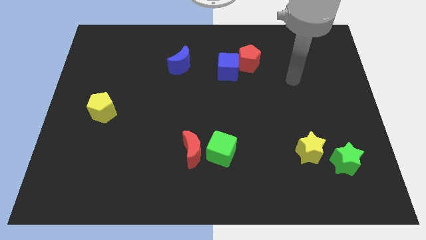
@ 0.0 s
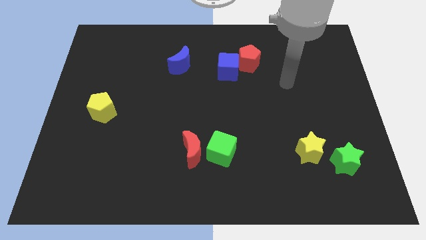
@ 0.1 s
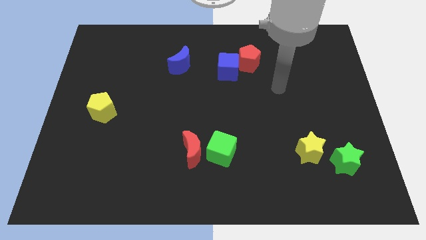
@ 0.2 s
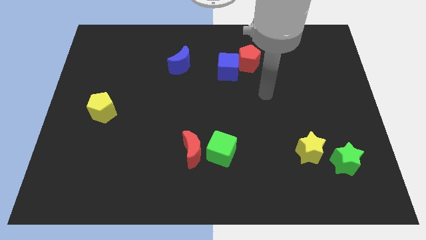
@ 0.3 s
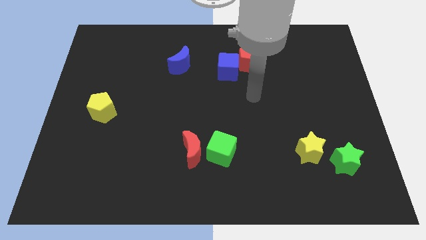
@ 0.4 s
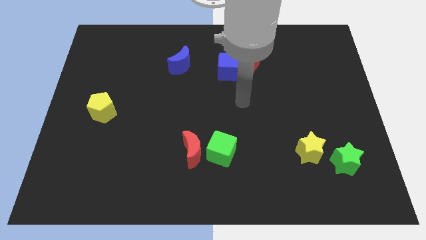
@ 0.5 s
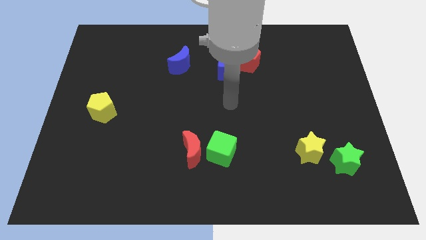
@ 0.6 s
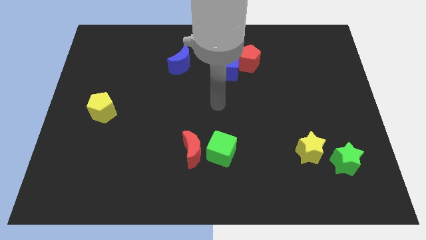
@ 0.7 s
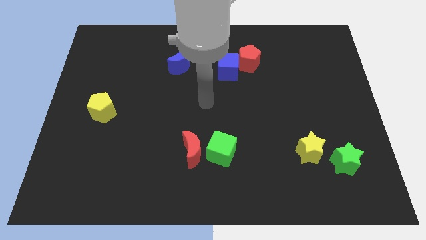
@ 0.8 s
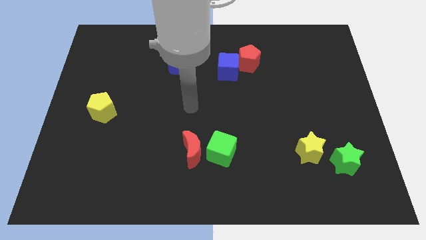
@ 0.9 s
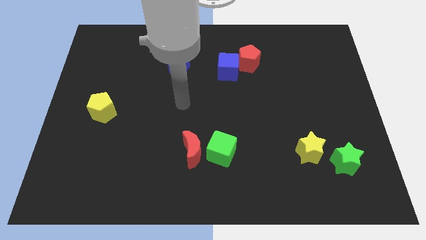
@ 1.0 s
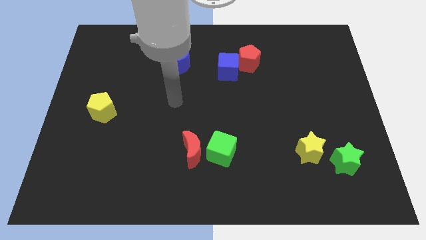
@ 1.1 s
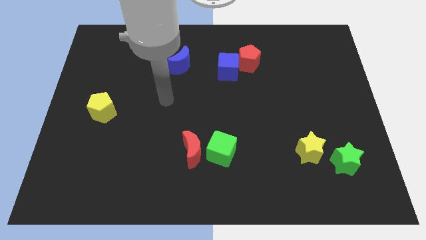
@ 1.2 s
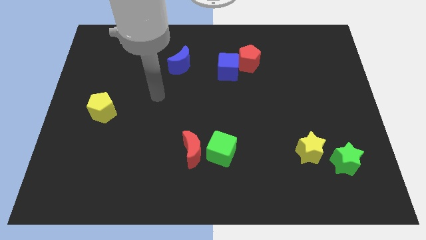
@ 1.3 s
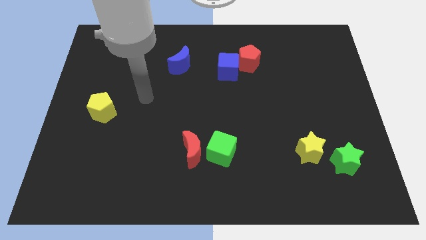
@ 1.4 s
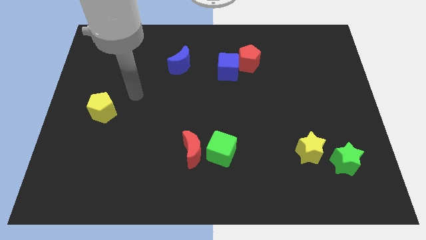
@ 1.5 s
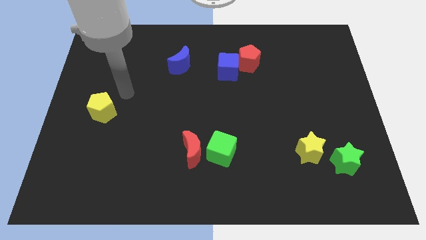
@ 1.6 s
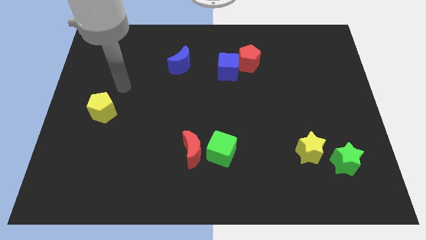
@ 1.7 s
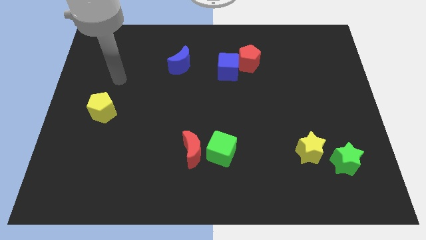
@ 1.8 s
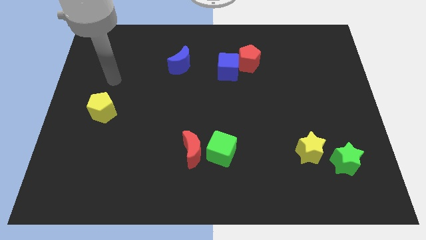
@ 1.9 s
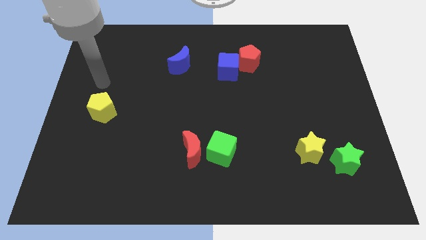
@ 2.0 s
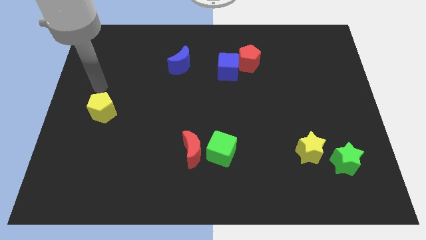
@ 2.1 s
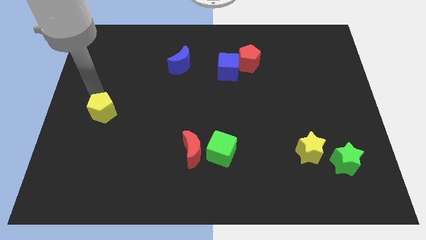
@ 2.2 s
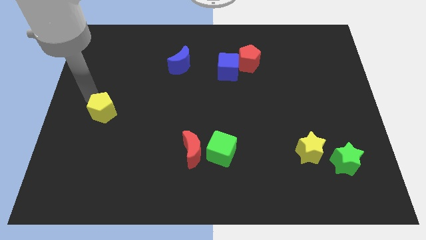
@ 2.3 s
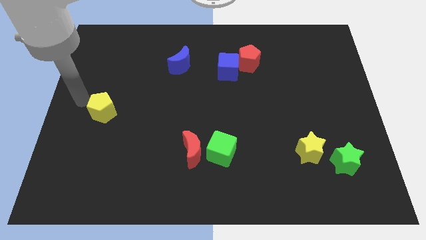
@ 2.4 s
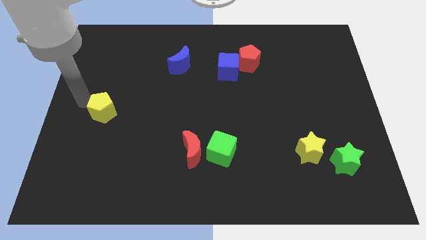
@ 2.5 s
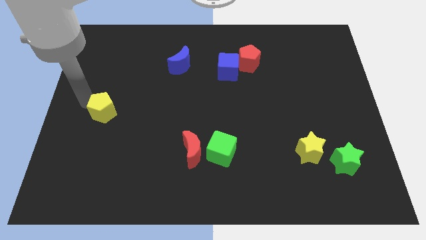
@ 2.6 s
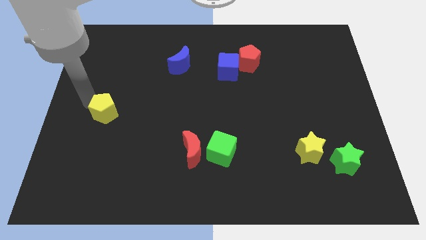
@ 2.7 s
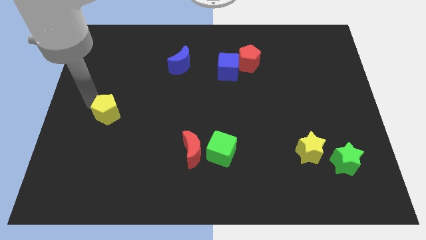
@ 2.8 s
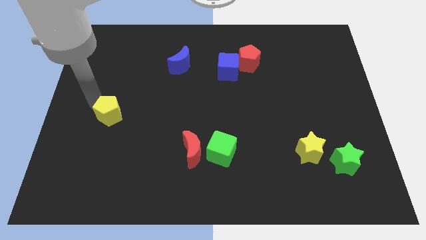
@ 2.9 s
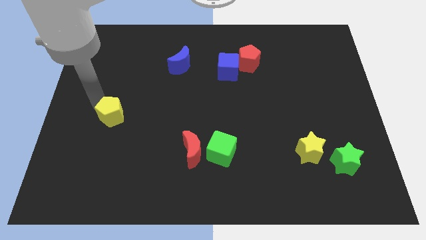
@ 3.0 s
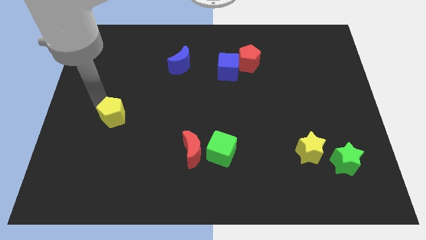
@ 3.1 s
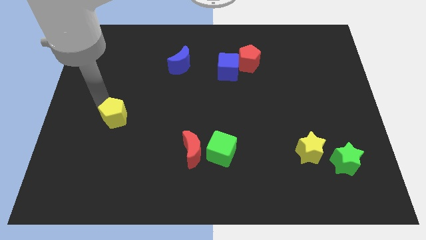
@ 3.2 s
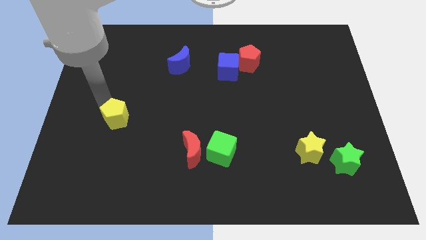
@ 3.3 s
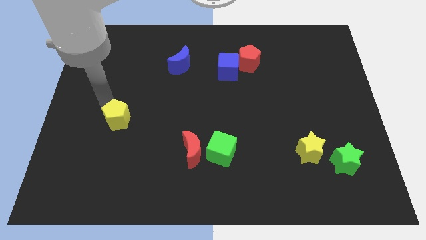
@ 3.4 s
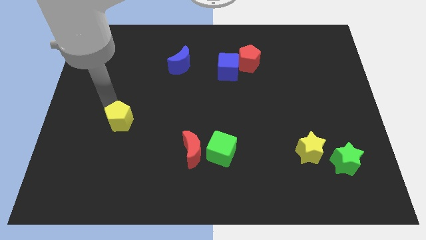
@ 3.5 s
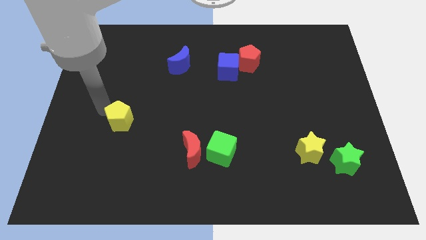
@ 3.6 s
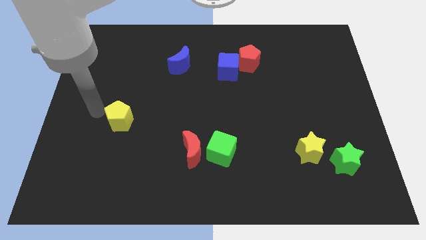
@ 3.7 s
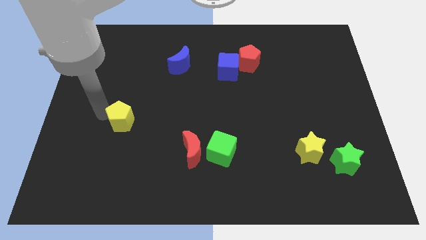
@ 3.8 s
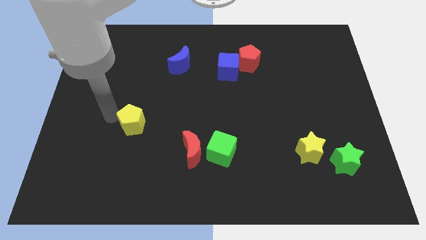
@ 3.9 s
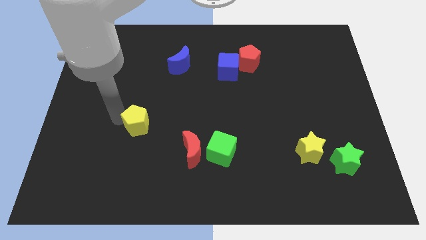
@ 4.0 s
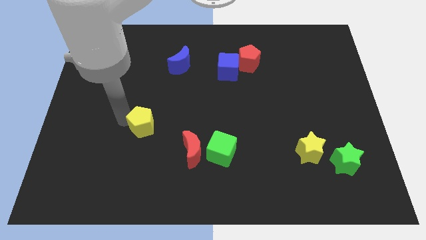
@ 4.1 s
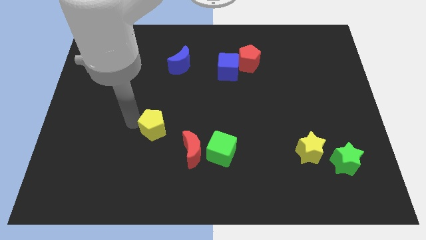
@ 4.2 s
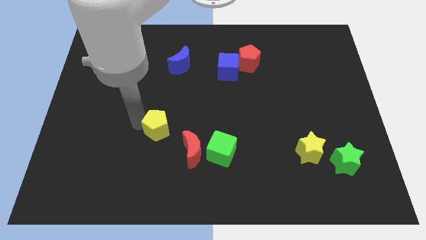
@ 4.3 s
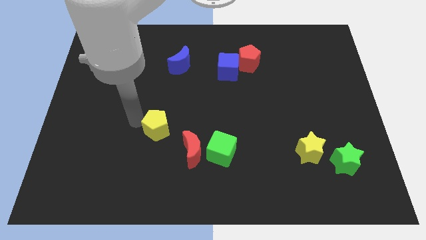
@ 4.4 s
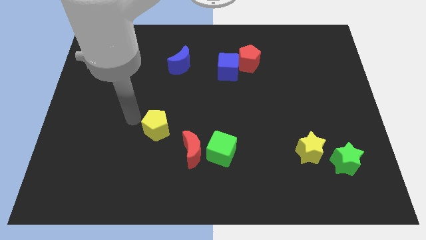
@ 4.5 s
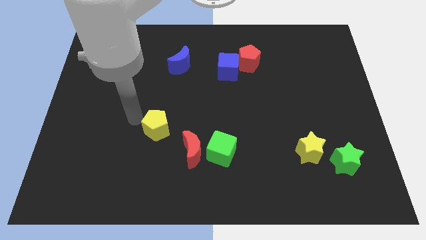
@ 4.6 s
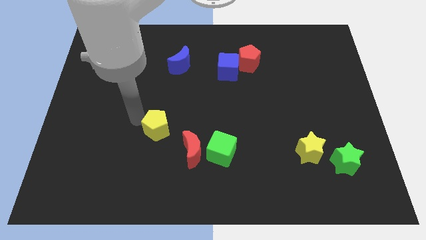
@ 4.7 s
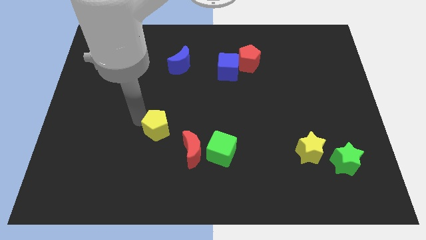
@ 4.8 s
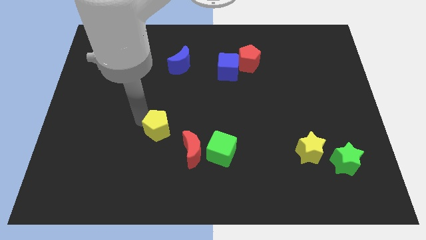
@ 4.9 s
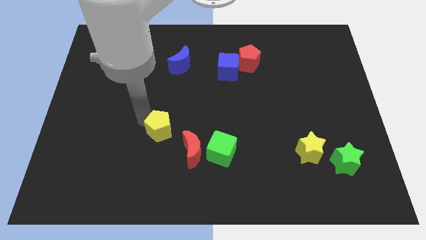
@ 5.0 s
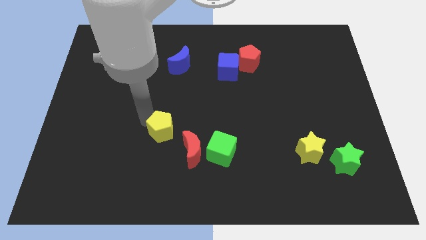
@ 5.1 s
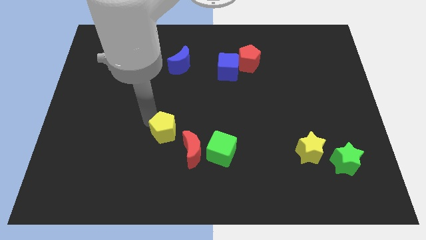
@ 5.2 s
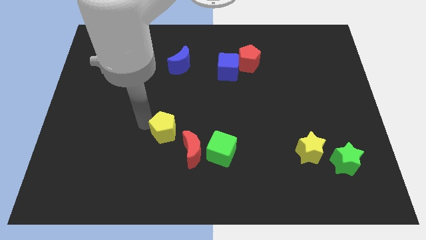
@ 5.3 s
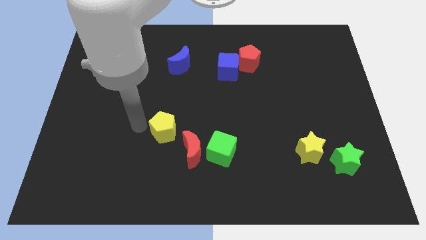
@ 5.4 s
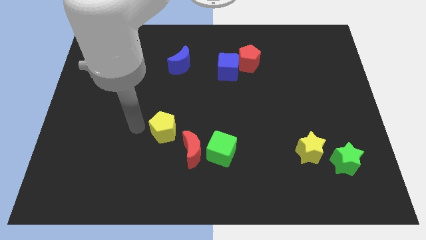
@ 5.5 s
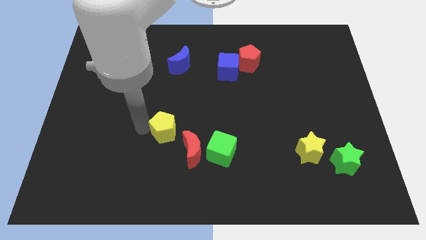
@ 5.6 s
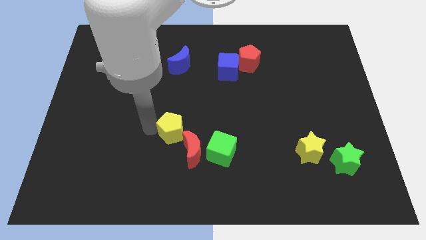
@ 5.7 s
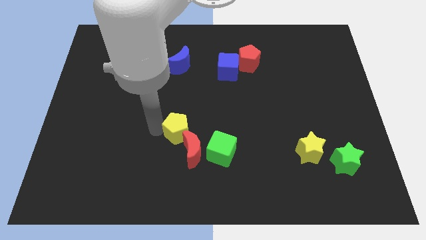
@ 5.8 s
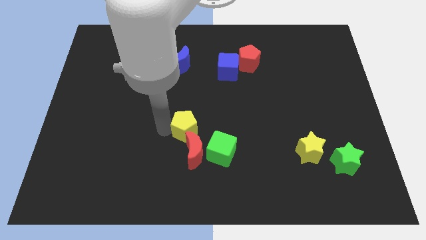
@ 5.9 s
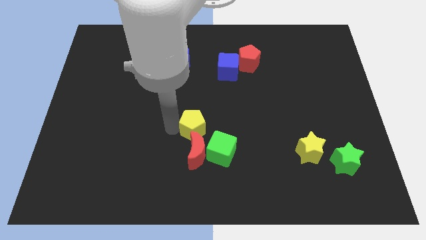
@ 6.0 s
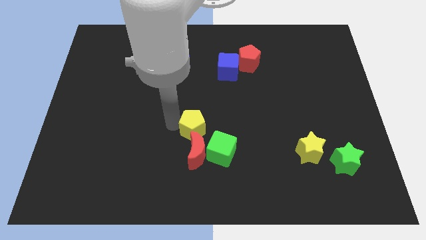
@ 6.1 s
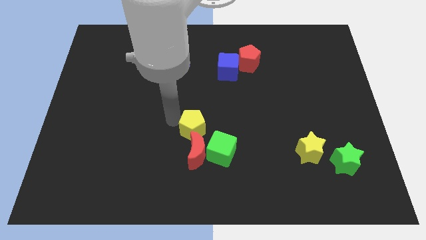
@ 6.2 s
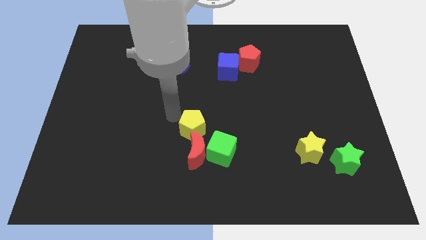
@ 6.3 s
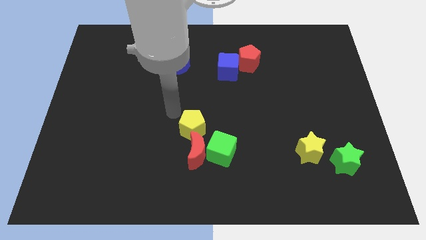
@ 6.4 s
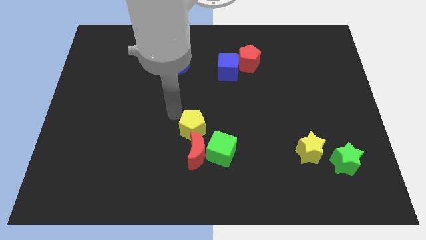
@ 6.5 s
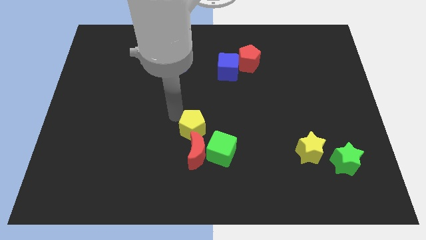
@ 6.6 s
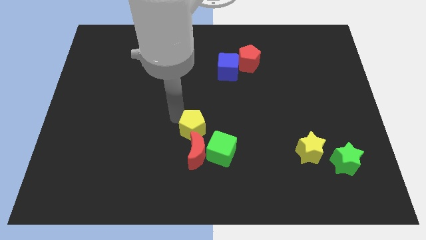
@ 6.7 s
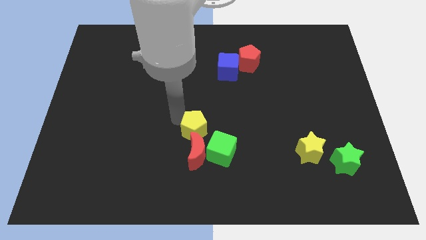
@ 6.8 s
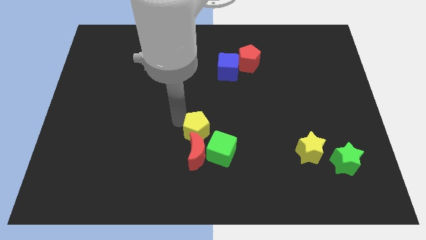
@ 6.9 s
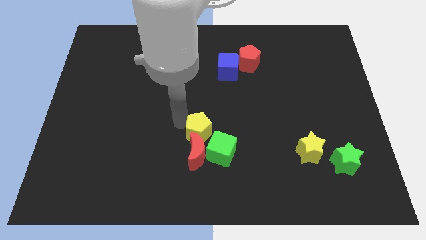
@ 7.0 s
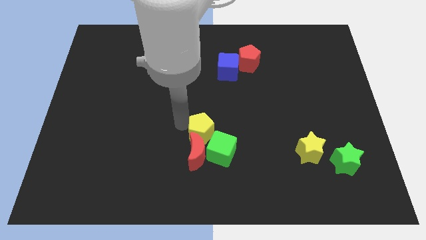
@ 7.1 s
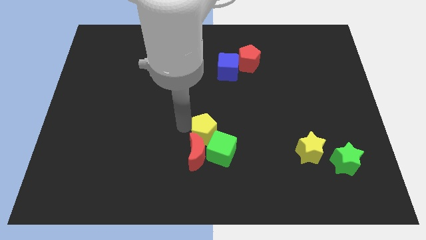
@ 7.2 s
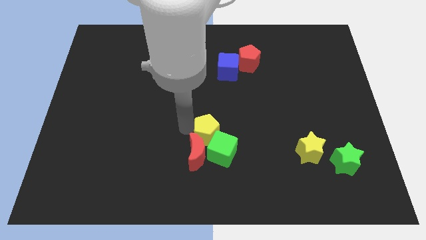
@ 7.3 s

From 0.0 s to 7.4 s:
push the yellow pentagon close to the green cube
